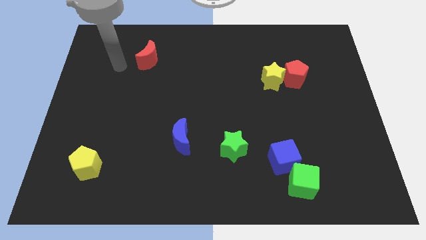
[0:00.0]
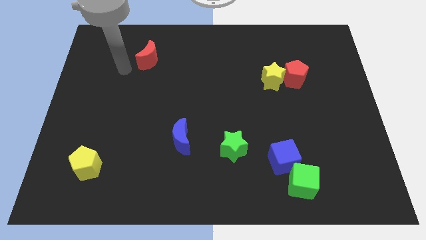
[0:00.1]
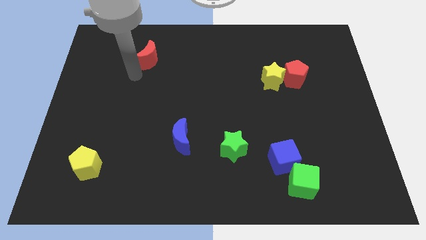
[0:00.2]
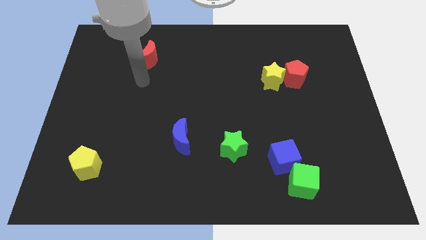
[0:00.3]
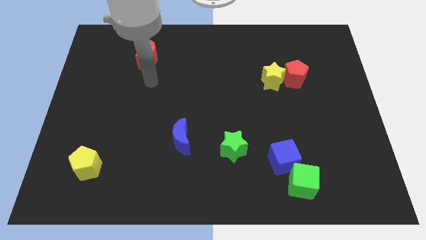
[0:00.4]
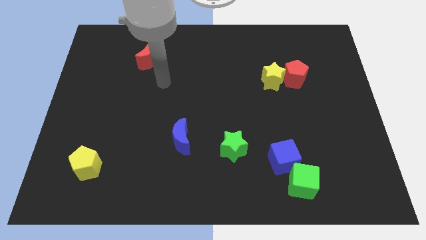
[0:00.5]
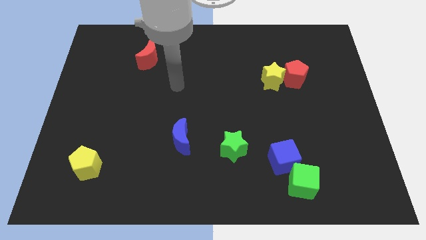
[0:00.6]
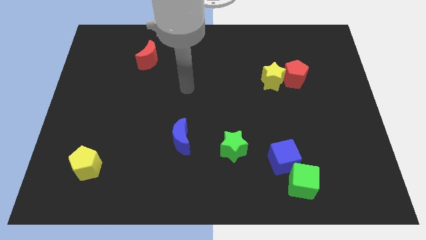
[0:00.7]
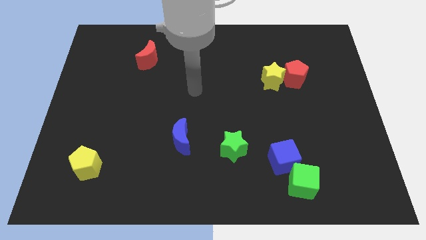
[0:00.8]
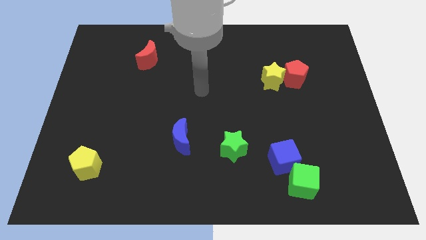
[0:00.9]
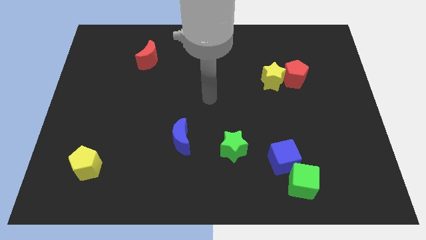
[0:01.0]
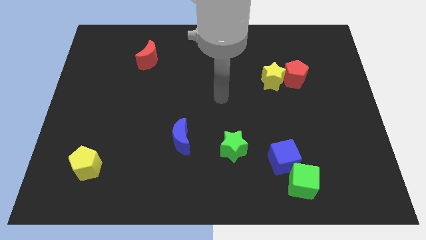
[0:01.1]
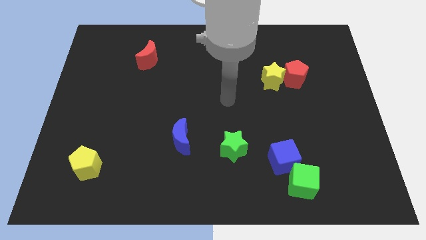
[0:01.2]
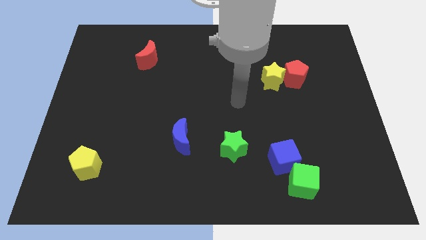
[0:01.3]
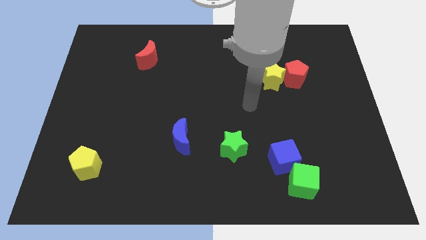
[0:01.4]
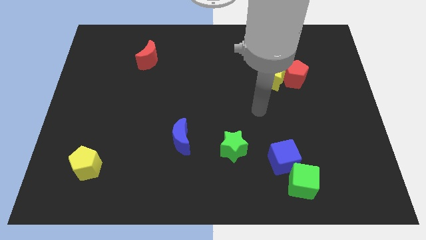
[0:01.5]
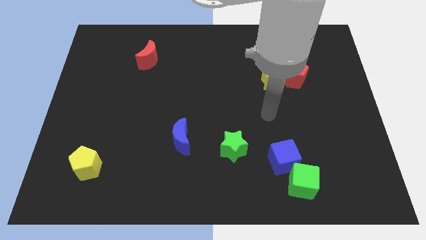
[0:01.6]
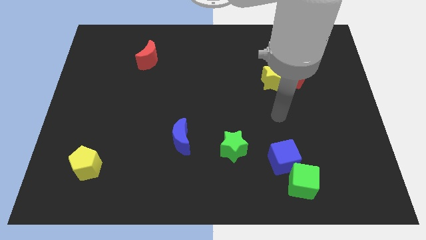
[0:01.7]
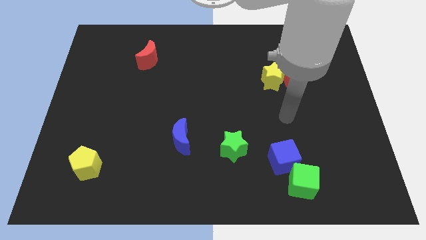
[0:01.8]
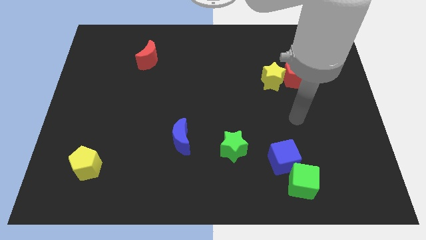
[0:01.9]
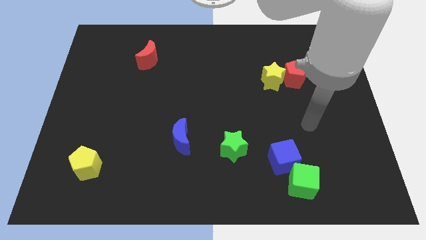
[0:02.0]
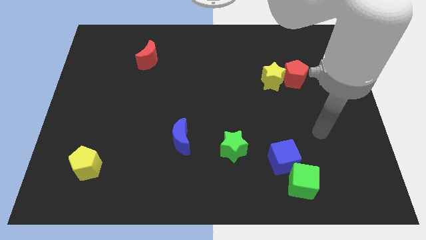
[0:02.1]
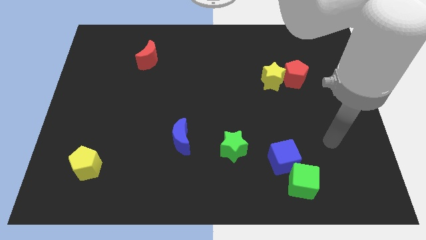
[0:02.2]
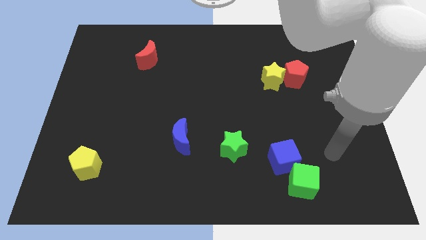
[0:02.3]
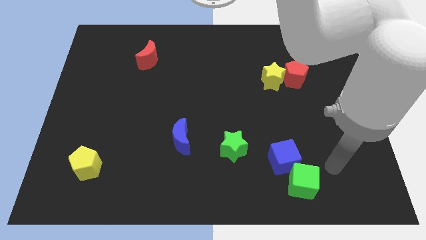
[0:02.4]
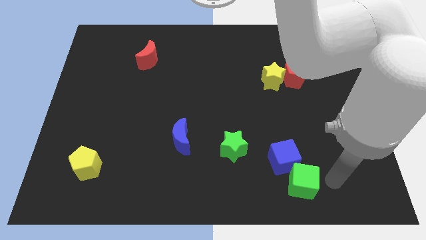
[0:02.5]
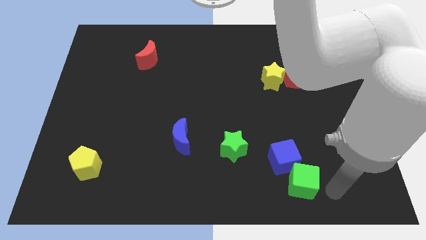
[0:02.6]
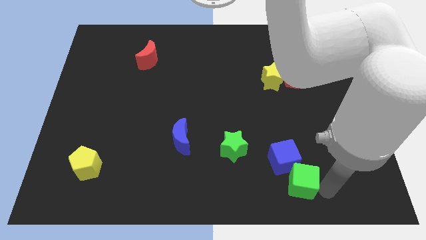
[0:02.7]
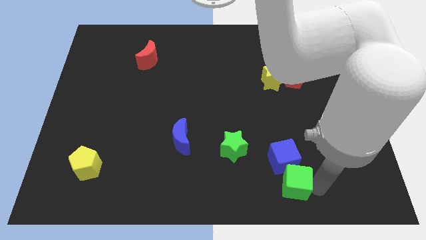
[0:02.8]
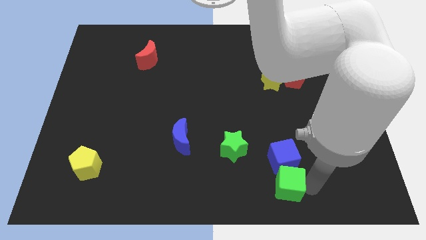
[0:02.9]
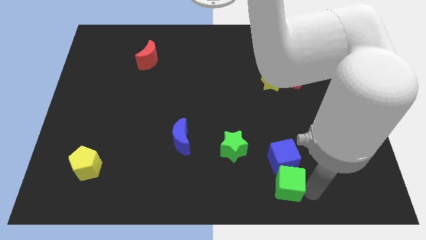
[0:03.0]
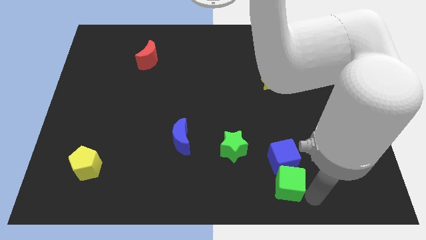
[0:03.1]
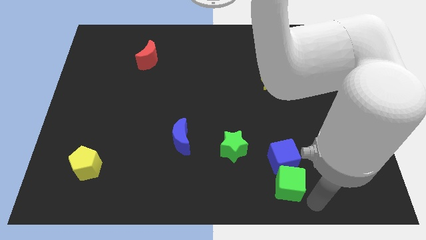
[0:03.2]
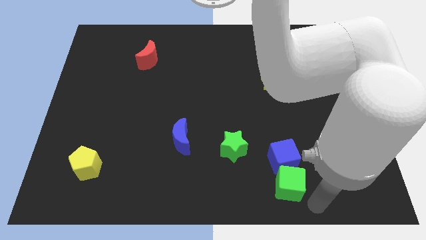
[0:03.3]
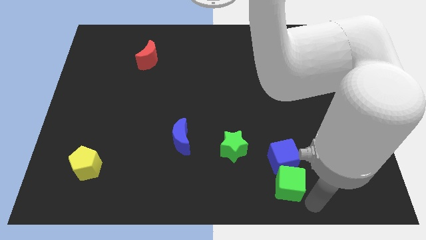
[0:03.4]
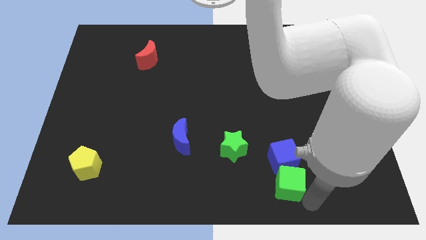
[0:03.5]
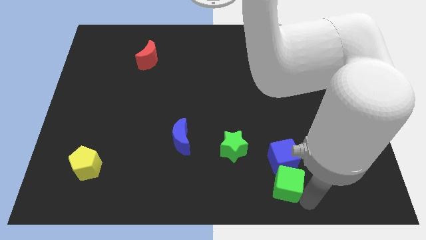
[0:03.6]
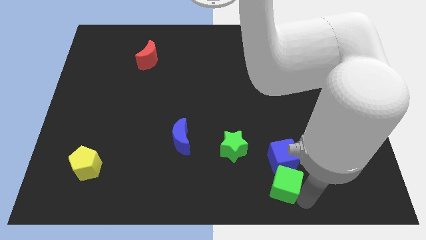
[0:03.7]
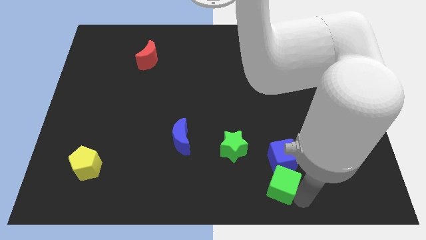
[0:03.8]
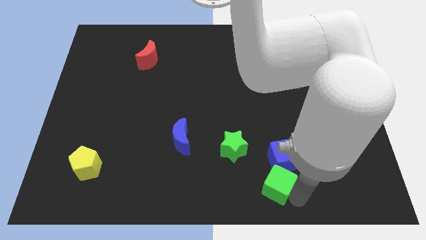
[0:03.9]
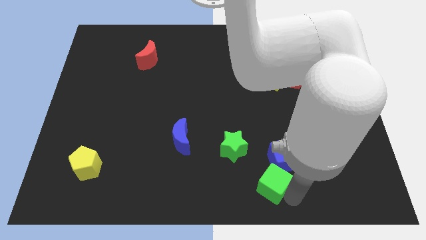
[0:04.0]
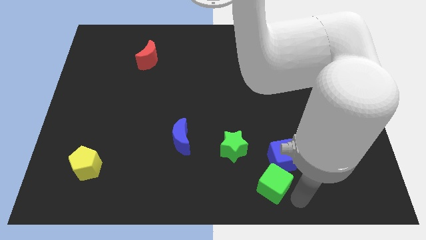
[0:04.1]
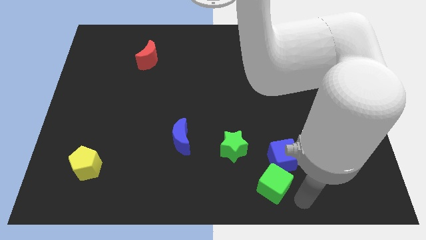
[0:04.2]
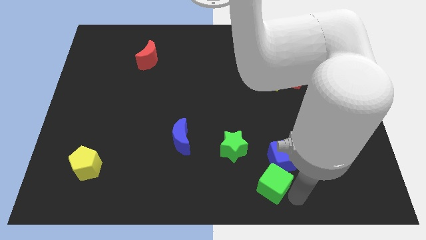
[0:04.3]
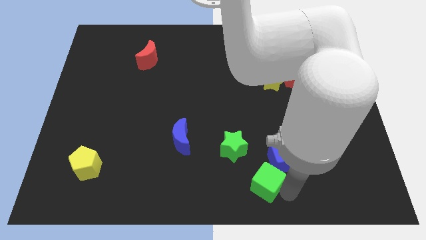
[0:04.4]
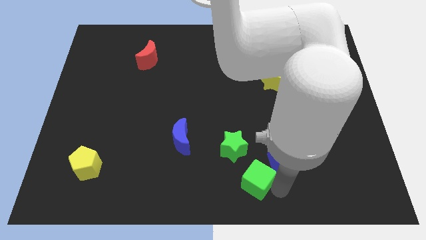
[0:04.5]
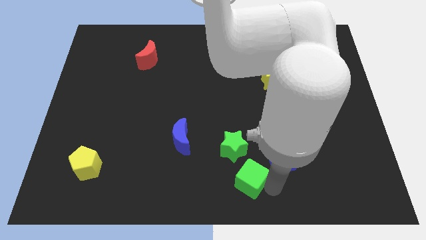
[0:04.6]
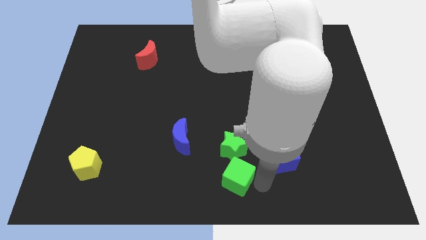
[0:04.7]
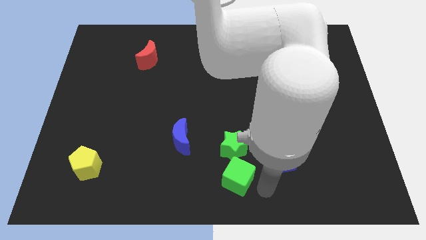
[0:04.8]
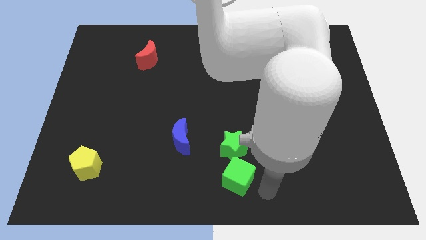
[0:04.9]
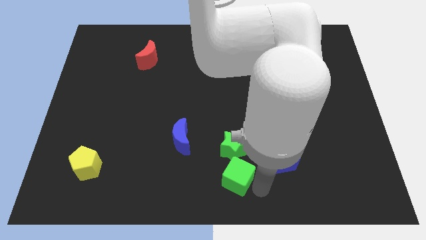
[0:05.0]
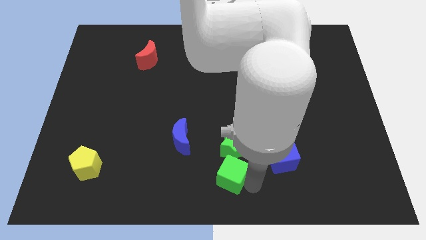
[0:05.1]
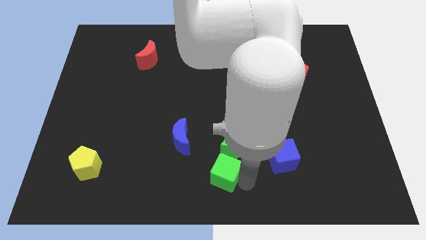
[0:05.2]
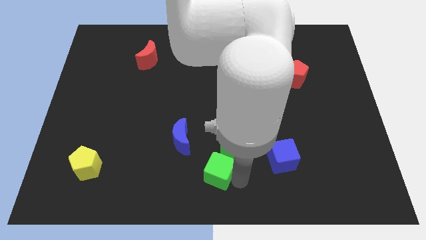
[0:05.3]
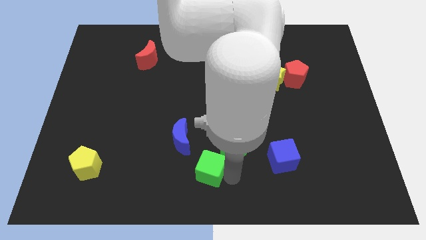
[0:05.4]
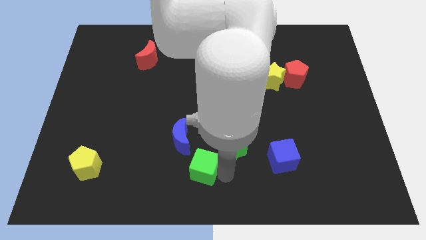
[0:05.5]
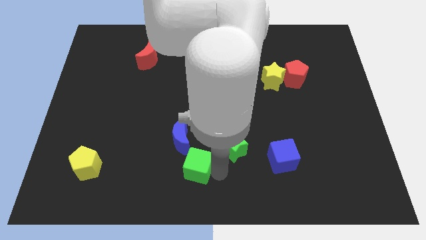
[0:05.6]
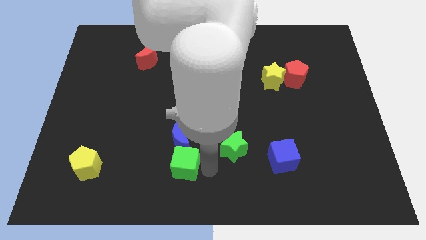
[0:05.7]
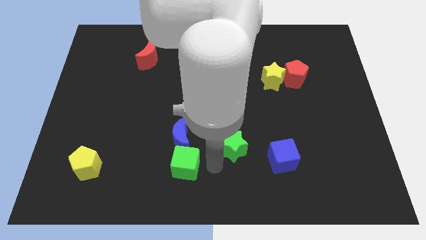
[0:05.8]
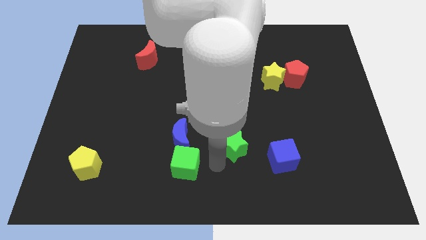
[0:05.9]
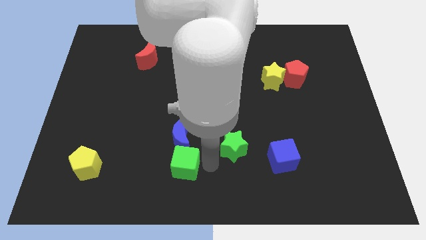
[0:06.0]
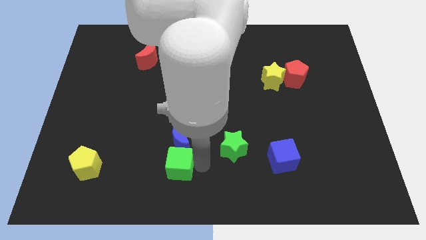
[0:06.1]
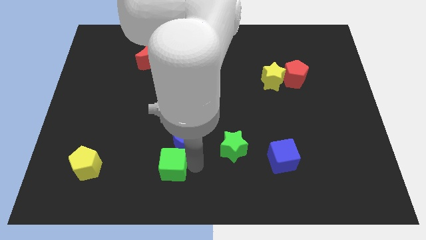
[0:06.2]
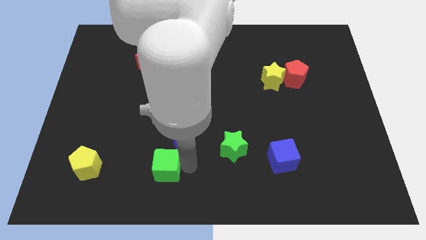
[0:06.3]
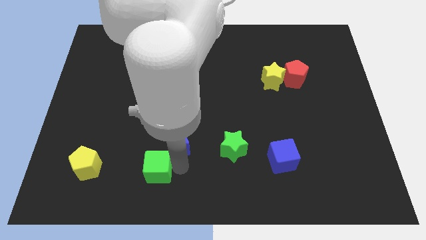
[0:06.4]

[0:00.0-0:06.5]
put the green cube to the right side of the yellow pentagon

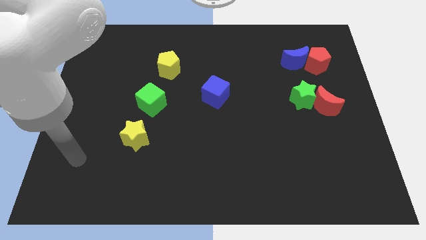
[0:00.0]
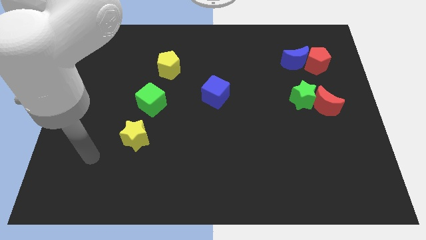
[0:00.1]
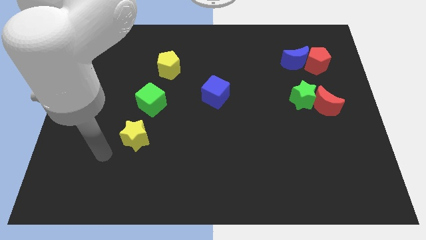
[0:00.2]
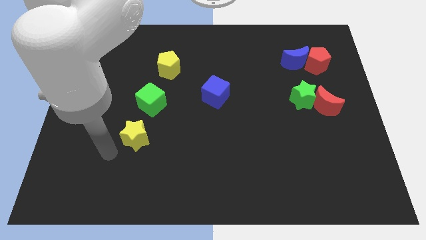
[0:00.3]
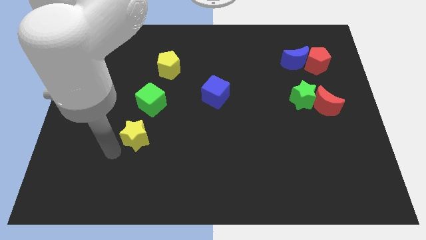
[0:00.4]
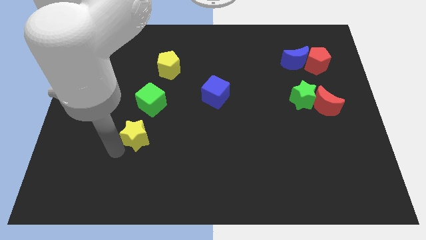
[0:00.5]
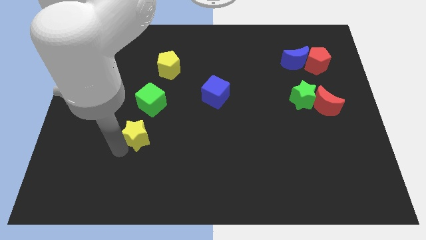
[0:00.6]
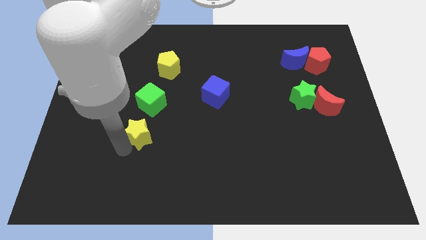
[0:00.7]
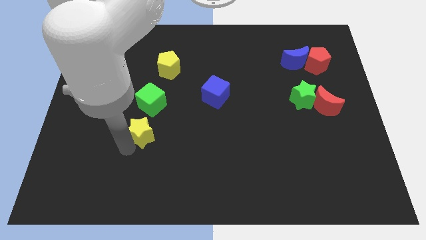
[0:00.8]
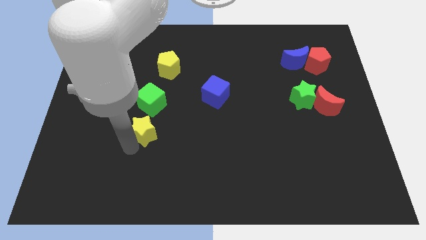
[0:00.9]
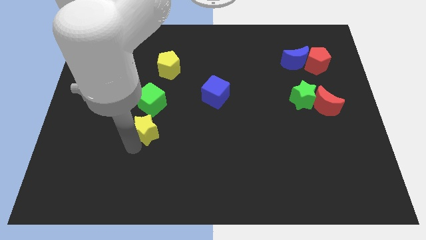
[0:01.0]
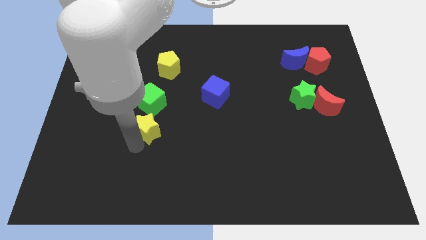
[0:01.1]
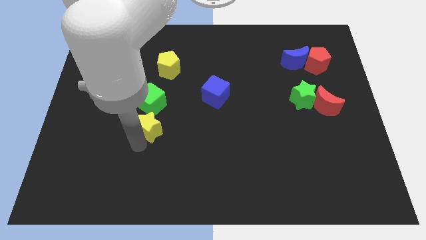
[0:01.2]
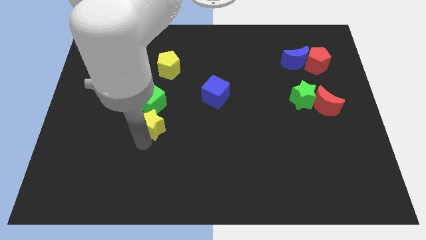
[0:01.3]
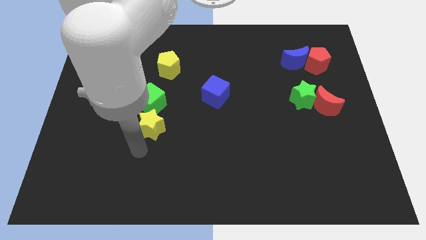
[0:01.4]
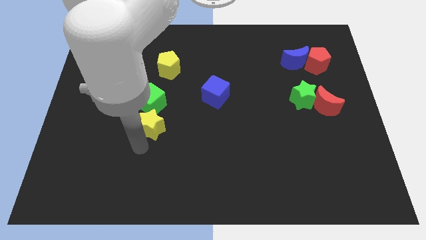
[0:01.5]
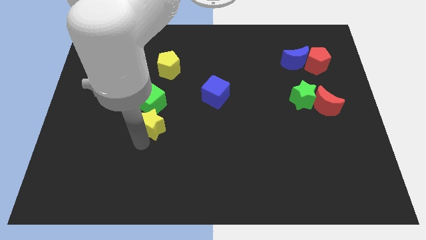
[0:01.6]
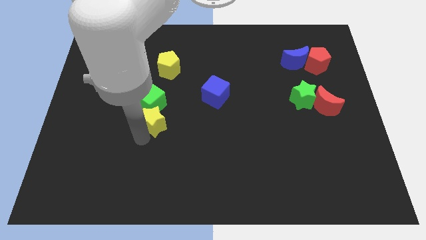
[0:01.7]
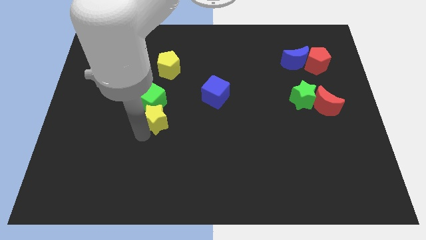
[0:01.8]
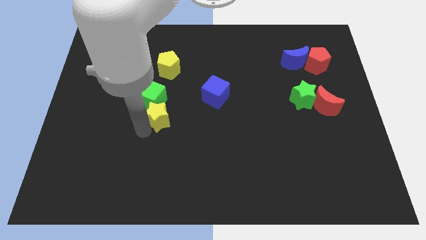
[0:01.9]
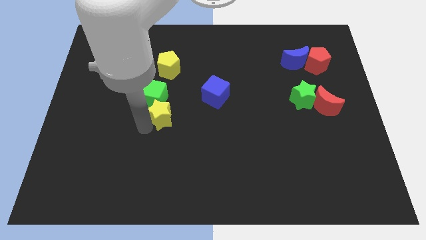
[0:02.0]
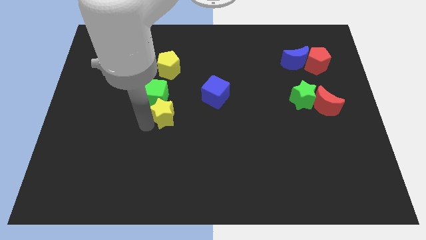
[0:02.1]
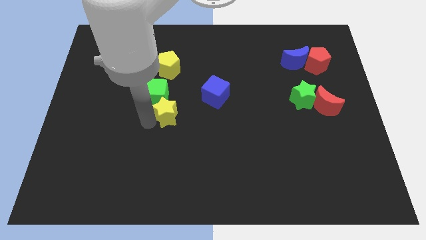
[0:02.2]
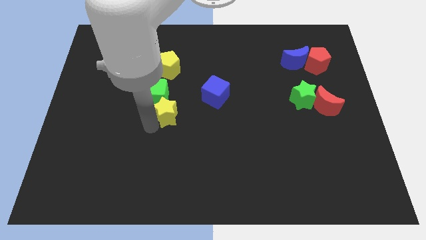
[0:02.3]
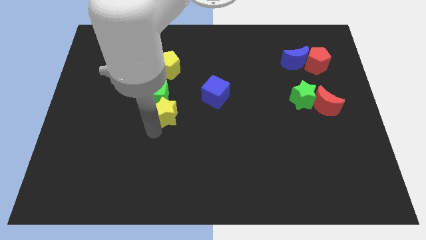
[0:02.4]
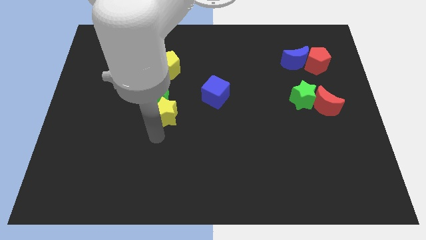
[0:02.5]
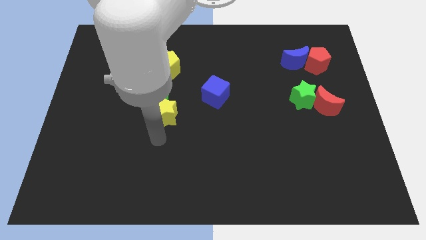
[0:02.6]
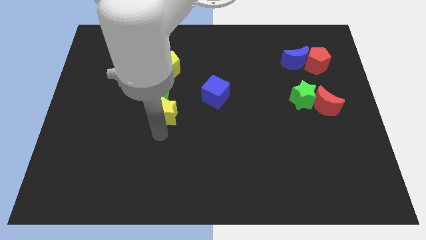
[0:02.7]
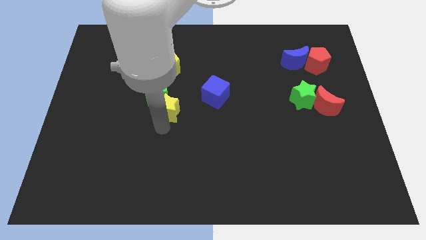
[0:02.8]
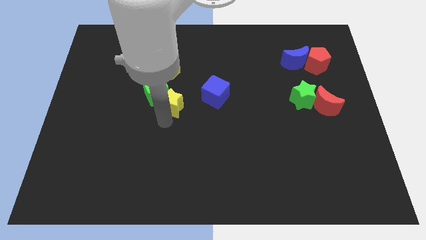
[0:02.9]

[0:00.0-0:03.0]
put the yellow star to the left of the blue cube
